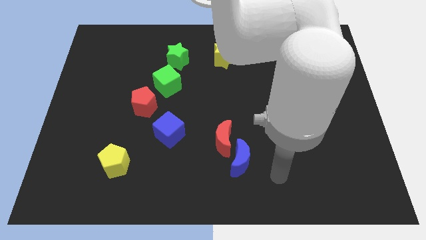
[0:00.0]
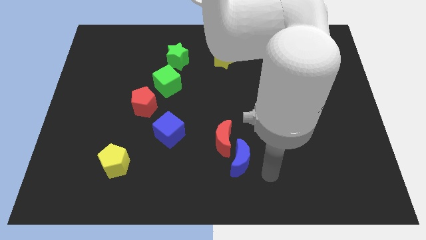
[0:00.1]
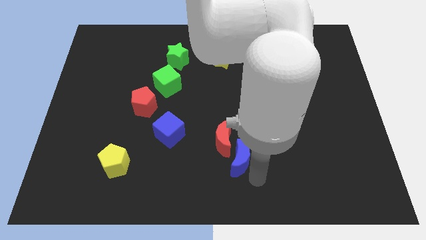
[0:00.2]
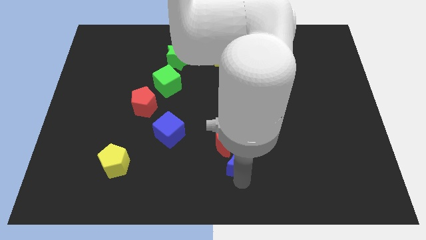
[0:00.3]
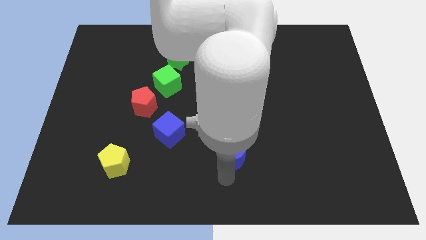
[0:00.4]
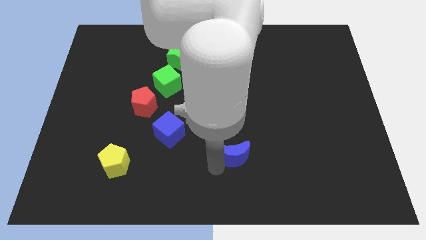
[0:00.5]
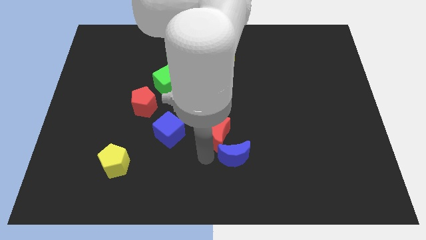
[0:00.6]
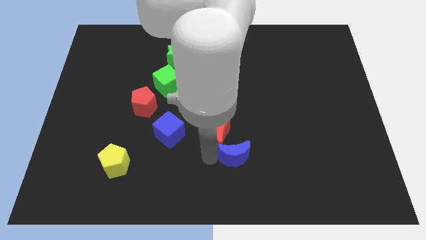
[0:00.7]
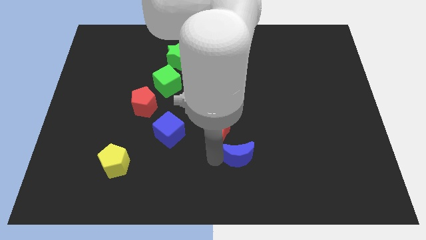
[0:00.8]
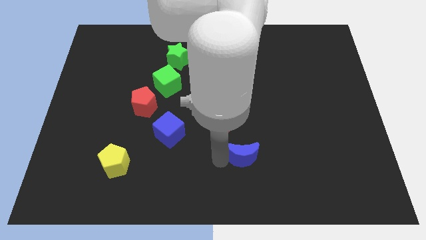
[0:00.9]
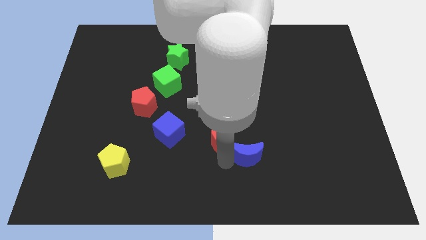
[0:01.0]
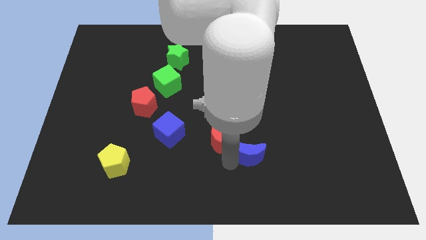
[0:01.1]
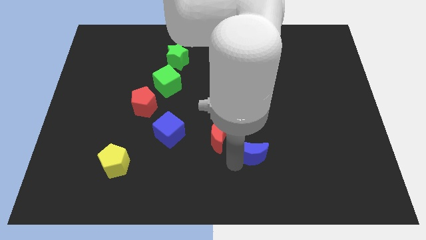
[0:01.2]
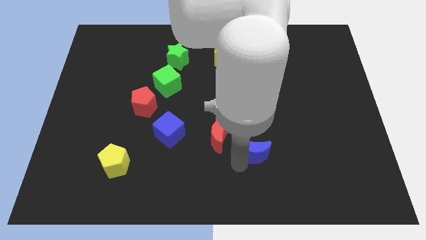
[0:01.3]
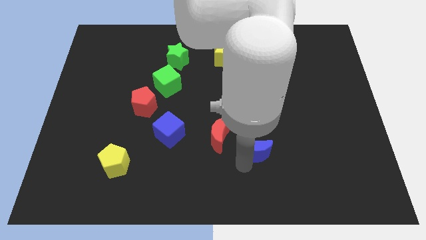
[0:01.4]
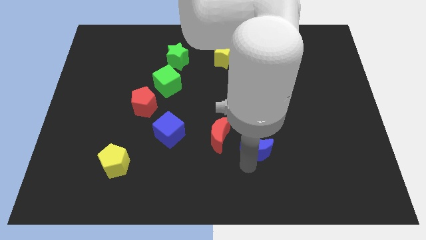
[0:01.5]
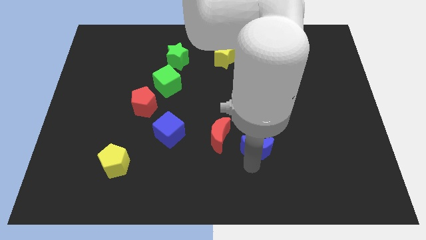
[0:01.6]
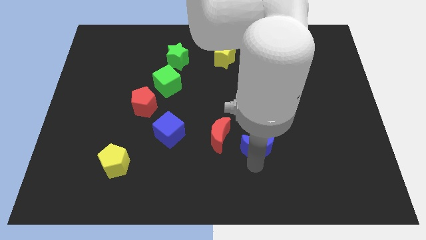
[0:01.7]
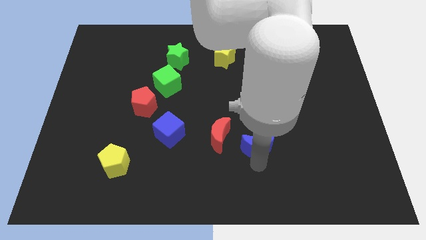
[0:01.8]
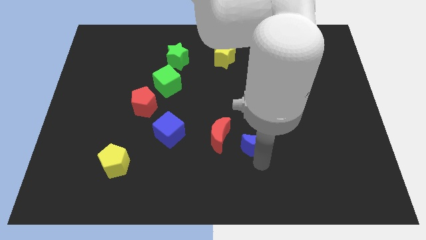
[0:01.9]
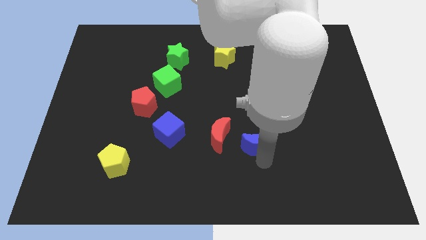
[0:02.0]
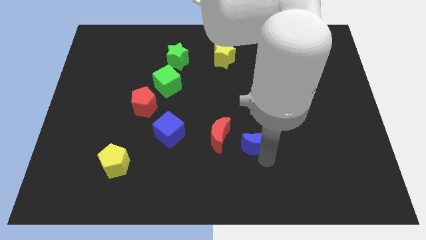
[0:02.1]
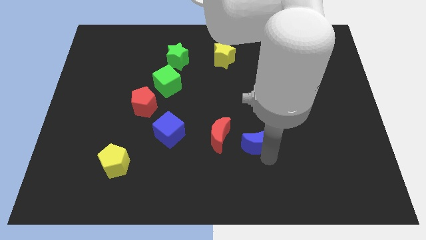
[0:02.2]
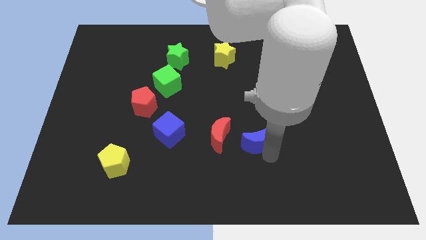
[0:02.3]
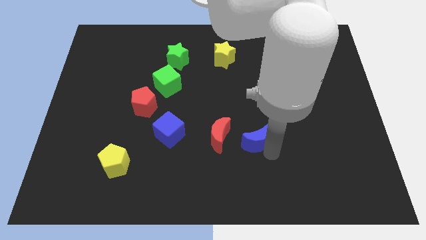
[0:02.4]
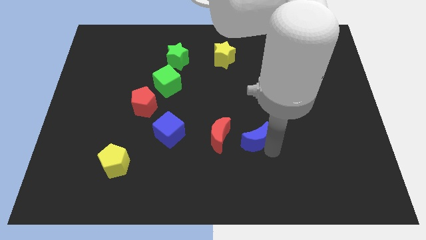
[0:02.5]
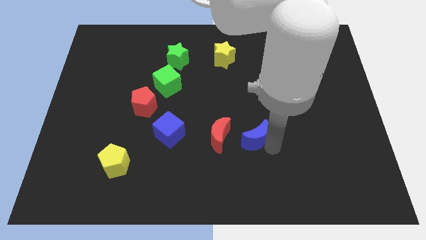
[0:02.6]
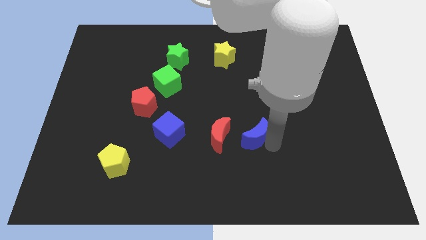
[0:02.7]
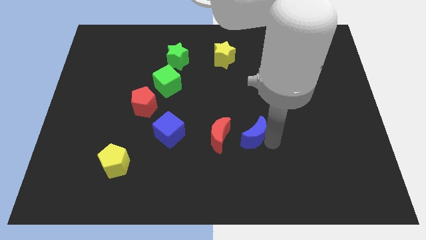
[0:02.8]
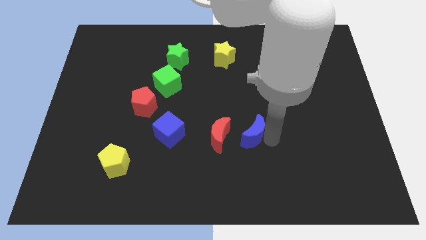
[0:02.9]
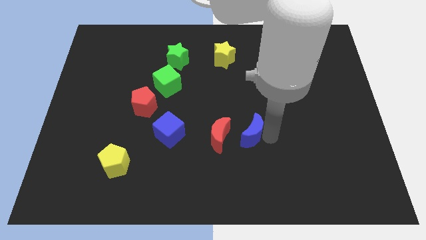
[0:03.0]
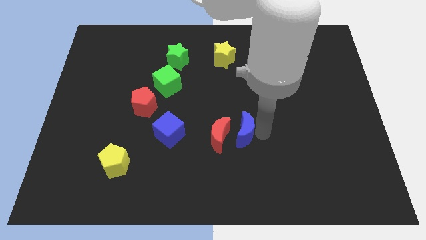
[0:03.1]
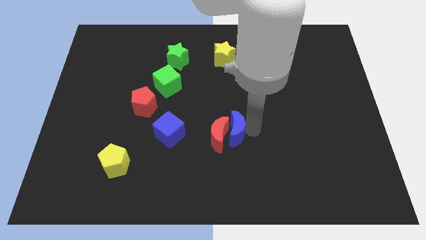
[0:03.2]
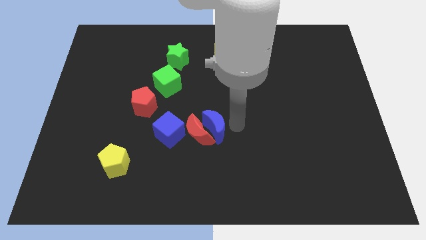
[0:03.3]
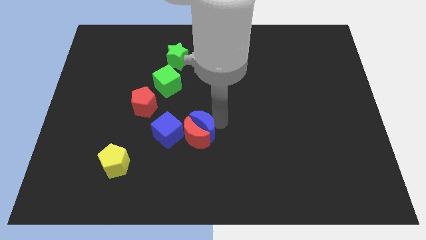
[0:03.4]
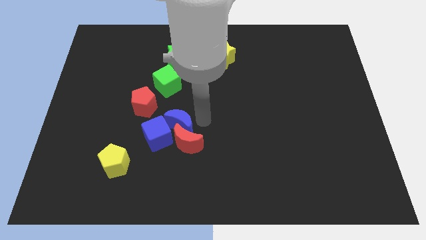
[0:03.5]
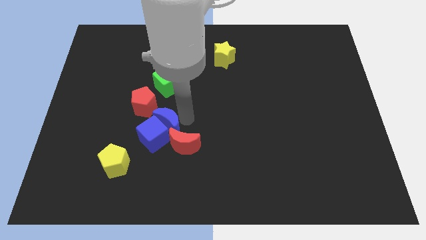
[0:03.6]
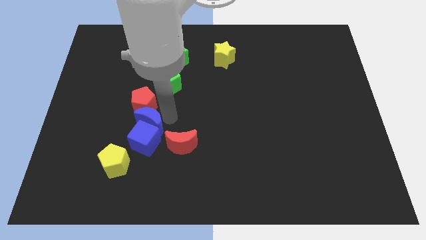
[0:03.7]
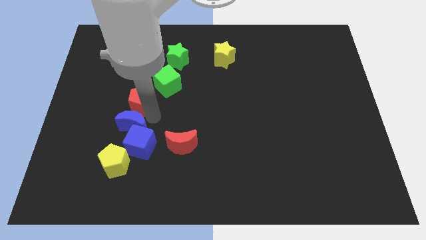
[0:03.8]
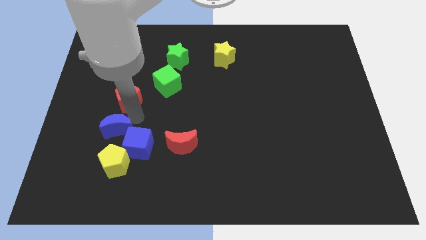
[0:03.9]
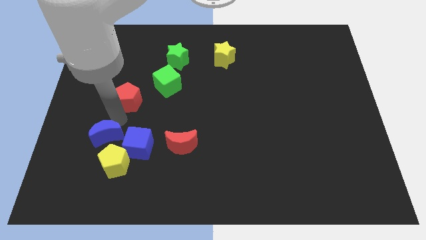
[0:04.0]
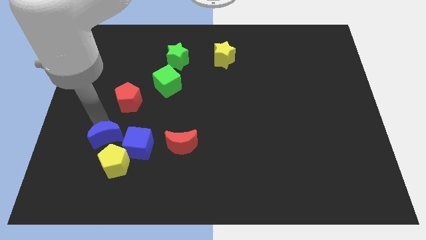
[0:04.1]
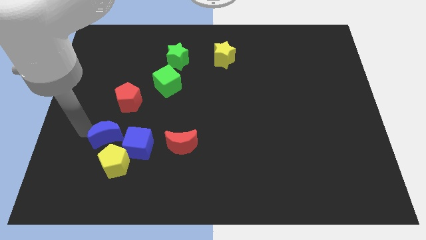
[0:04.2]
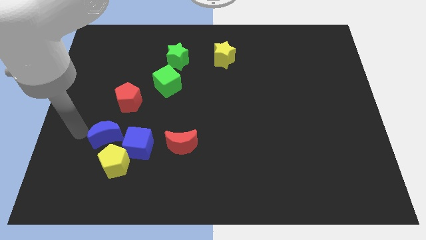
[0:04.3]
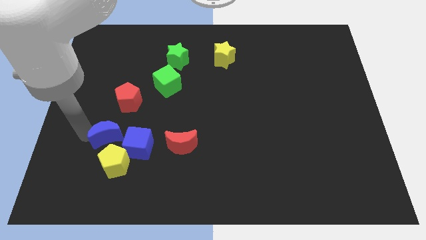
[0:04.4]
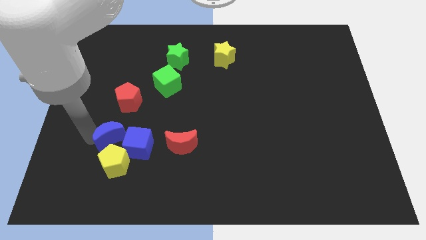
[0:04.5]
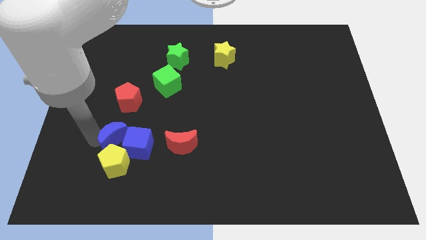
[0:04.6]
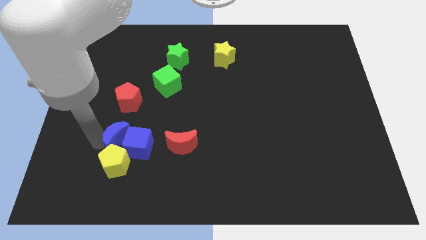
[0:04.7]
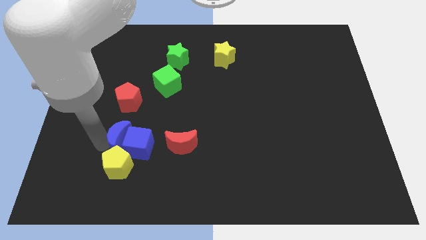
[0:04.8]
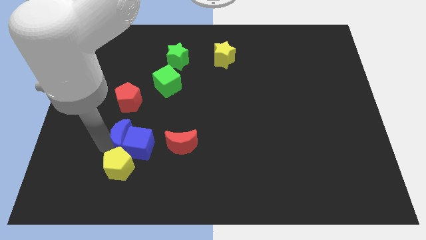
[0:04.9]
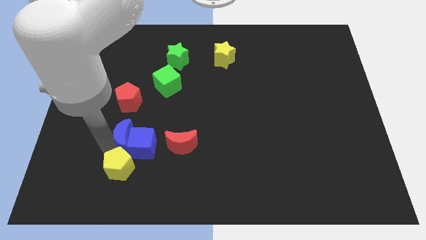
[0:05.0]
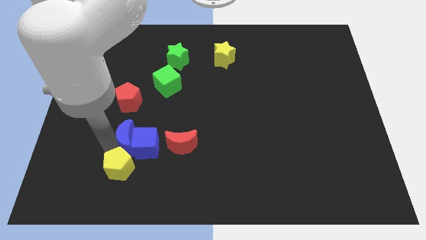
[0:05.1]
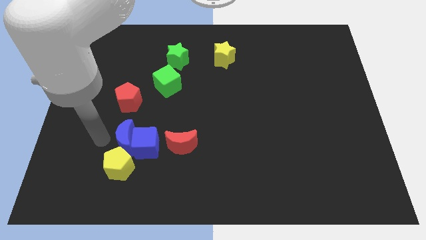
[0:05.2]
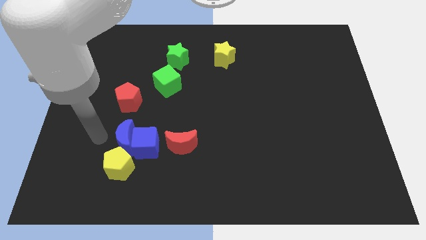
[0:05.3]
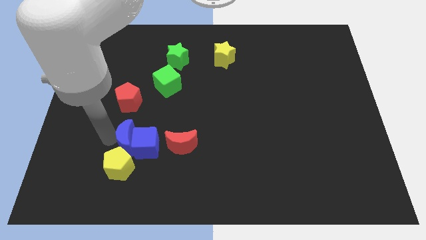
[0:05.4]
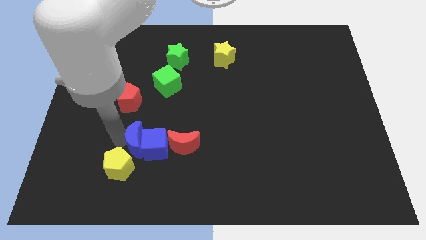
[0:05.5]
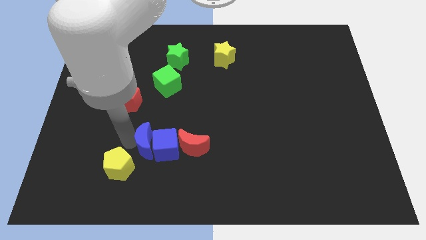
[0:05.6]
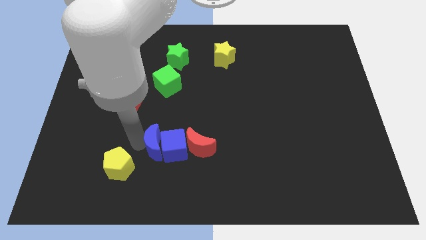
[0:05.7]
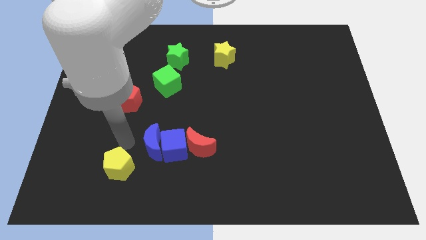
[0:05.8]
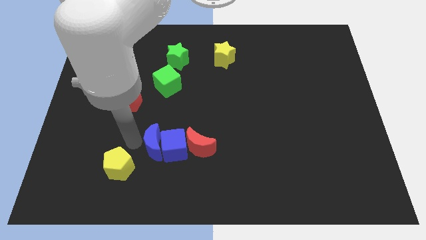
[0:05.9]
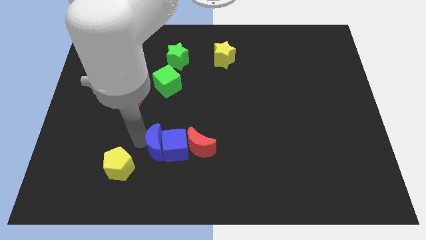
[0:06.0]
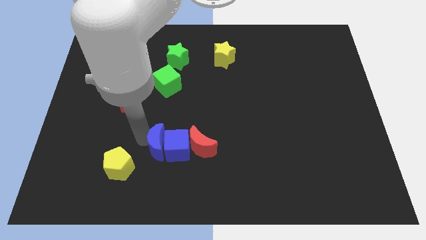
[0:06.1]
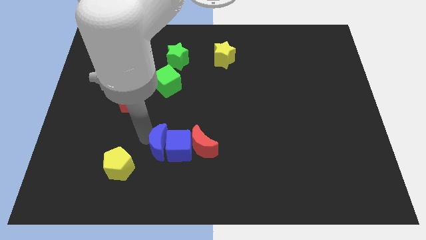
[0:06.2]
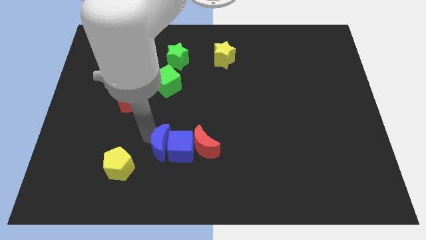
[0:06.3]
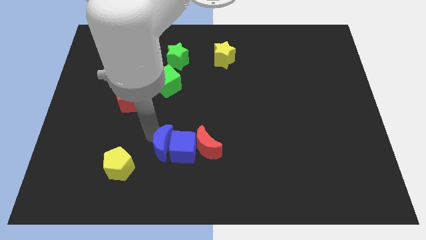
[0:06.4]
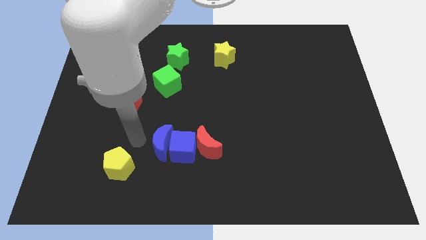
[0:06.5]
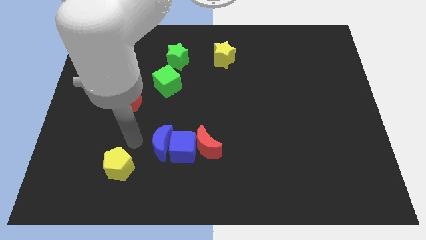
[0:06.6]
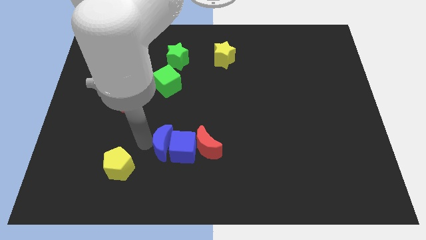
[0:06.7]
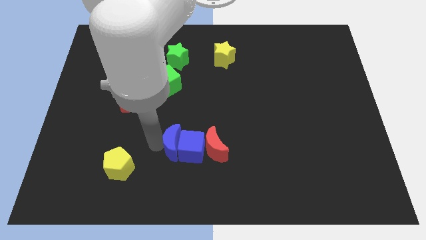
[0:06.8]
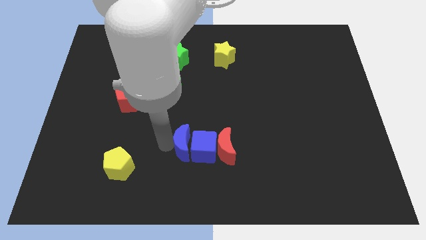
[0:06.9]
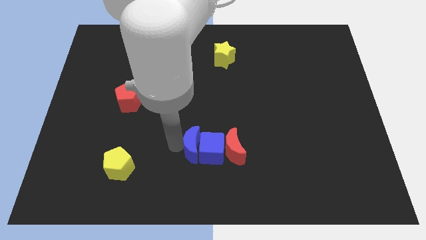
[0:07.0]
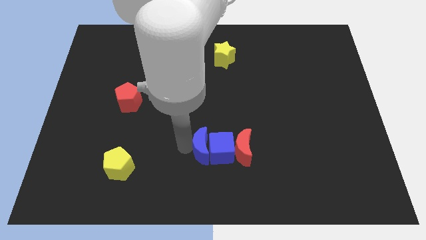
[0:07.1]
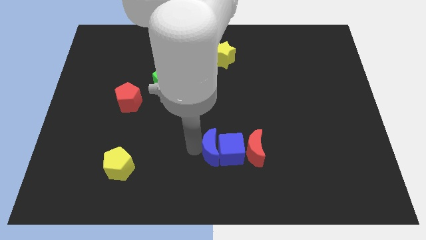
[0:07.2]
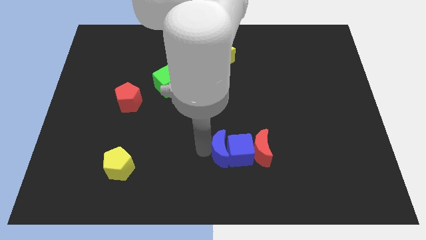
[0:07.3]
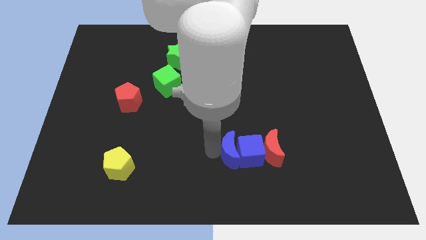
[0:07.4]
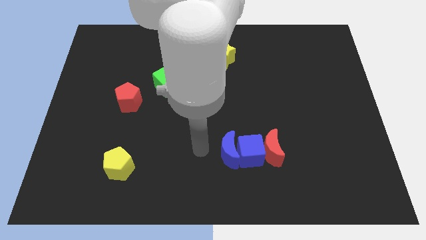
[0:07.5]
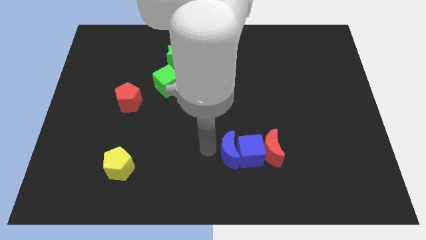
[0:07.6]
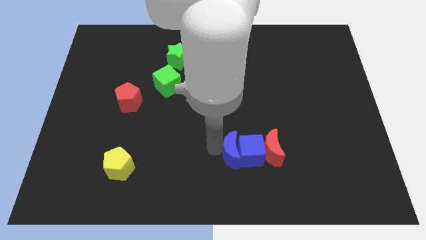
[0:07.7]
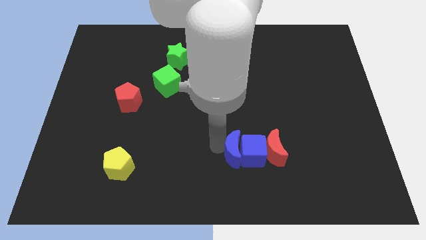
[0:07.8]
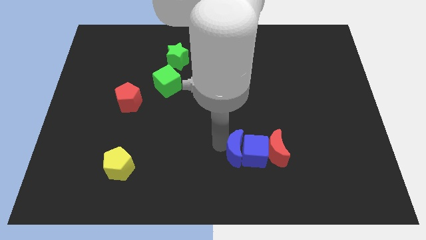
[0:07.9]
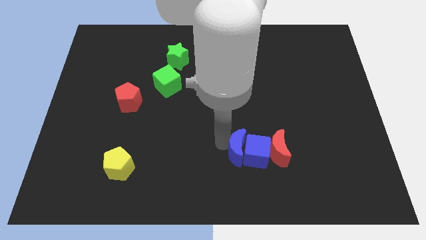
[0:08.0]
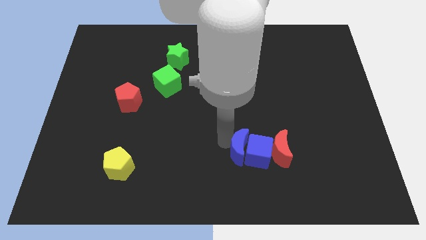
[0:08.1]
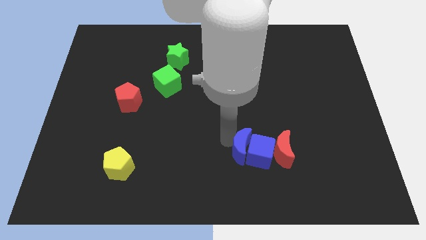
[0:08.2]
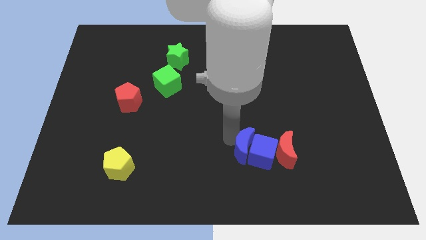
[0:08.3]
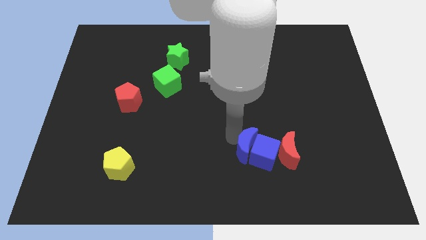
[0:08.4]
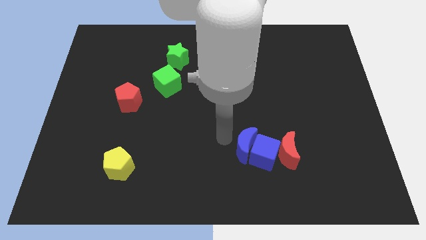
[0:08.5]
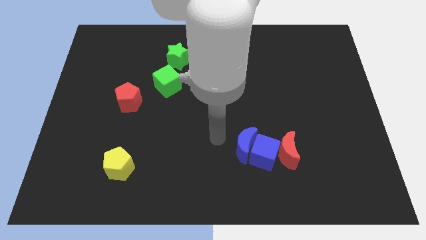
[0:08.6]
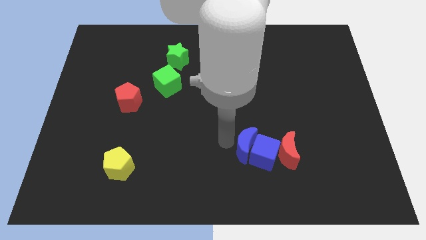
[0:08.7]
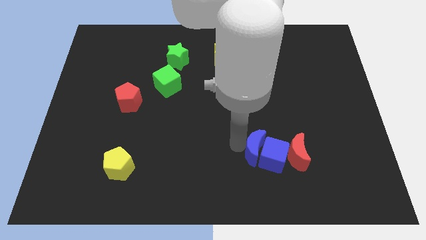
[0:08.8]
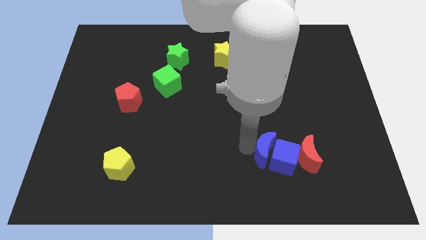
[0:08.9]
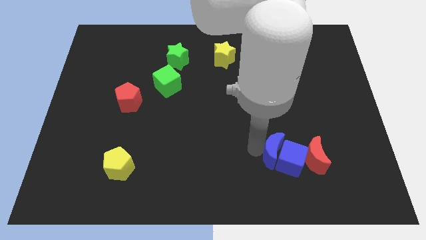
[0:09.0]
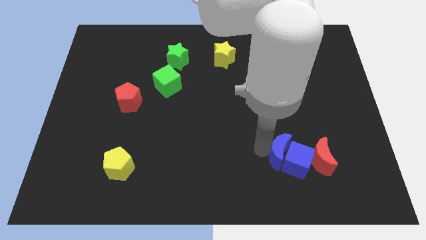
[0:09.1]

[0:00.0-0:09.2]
move the blue moon right a little
